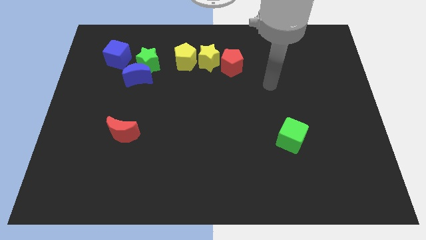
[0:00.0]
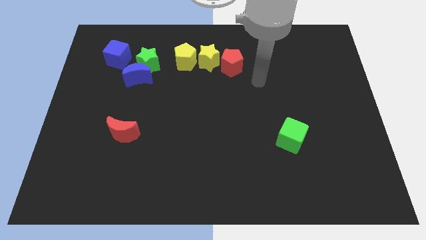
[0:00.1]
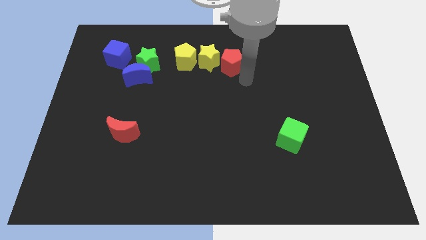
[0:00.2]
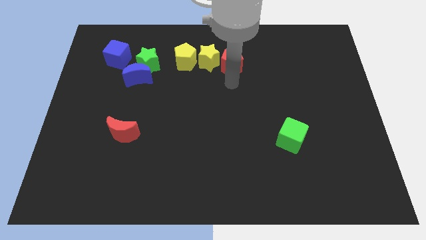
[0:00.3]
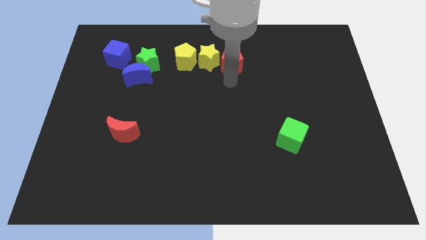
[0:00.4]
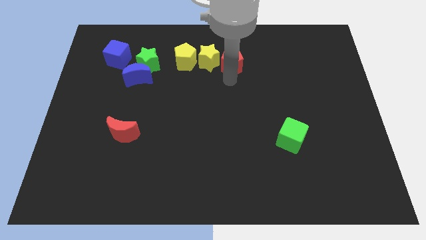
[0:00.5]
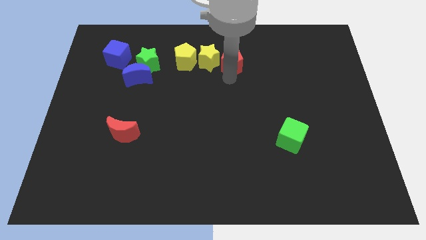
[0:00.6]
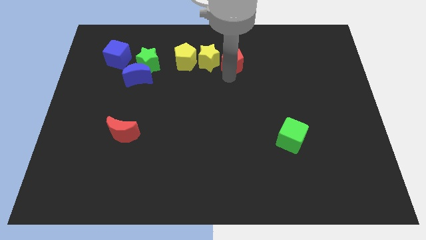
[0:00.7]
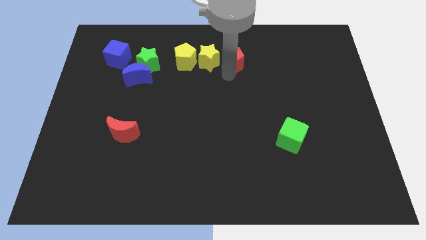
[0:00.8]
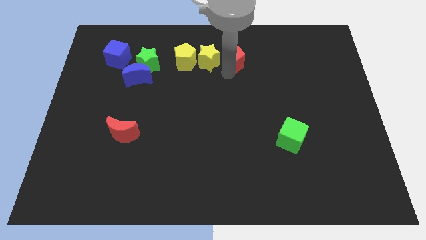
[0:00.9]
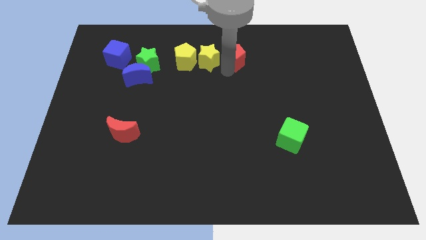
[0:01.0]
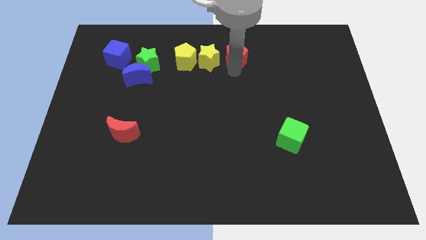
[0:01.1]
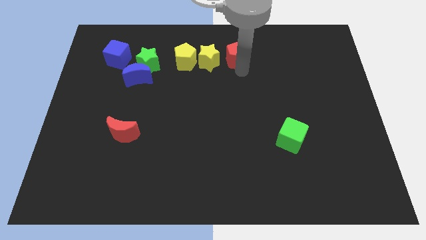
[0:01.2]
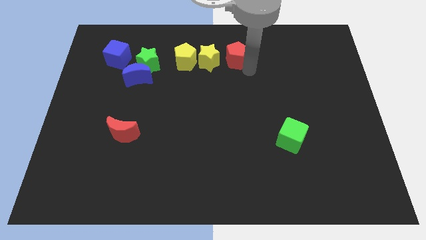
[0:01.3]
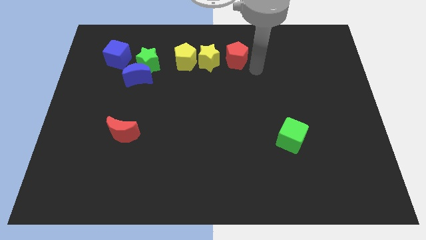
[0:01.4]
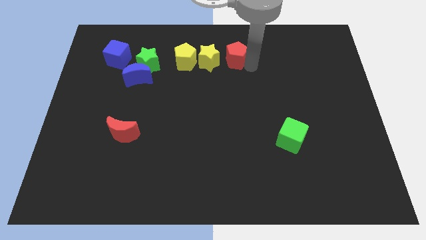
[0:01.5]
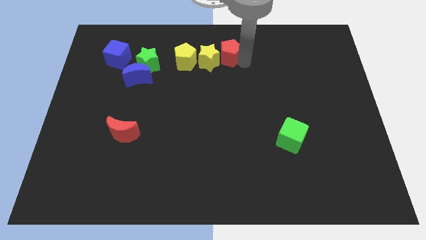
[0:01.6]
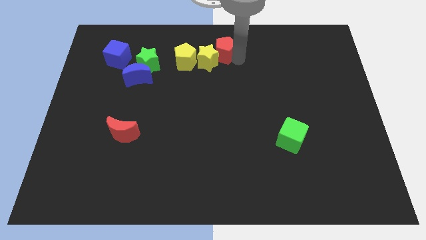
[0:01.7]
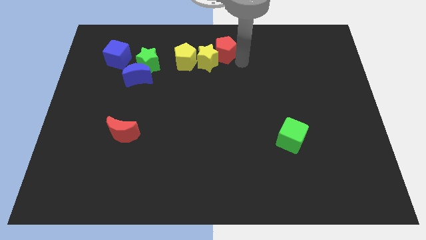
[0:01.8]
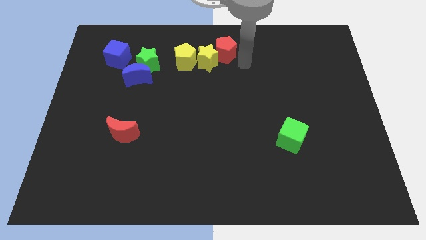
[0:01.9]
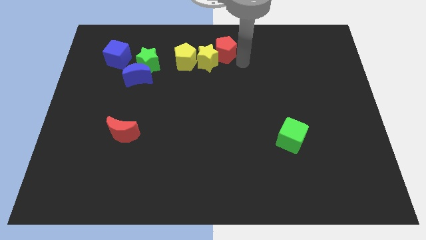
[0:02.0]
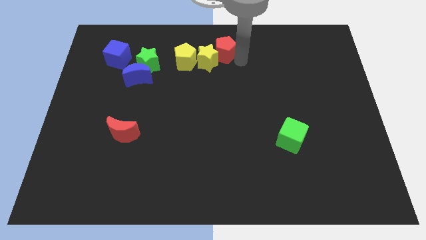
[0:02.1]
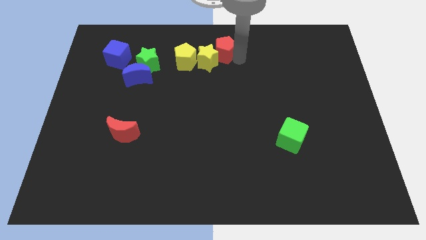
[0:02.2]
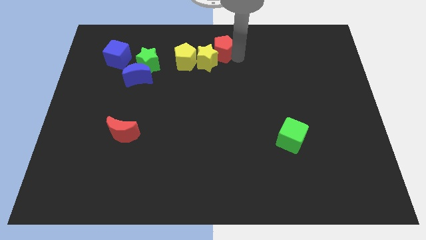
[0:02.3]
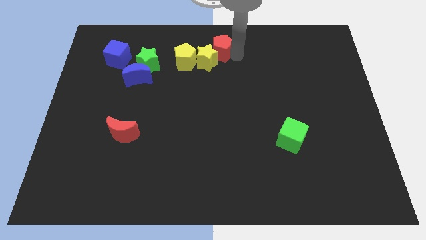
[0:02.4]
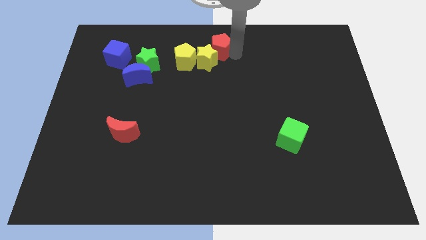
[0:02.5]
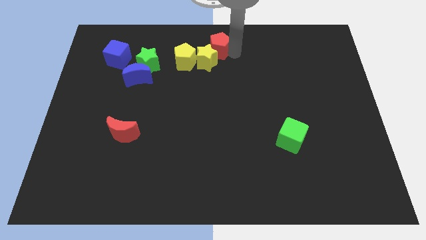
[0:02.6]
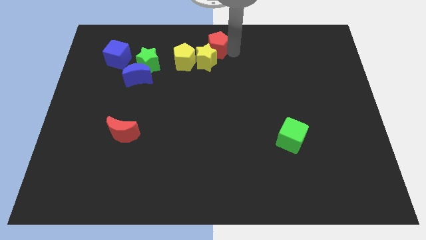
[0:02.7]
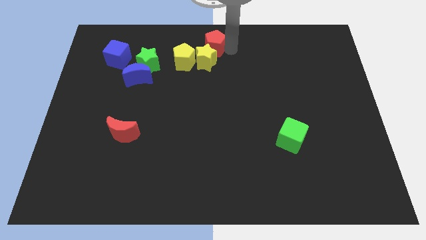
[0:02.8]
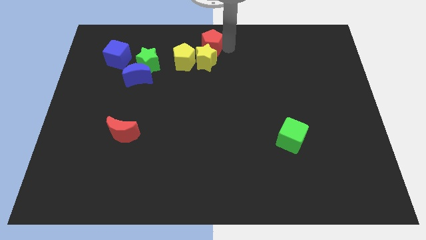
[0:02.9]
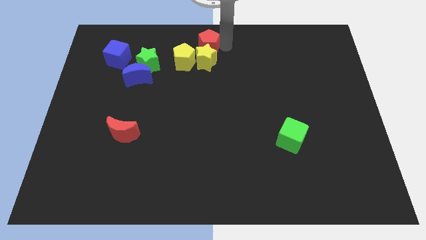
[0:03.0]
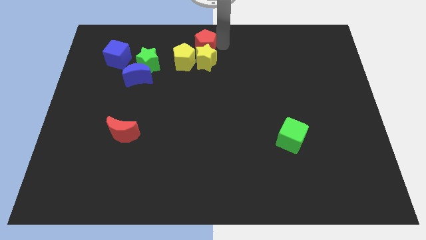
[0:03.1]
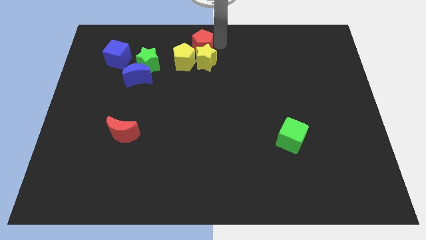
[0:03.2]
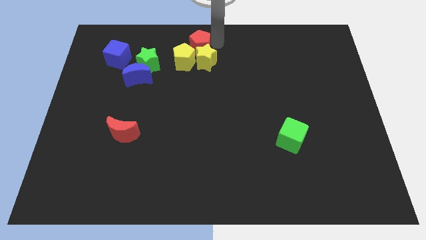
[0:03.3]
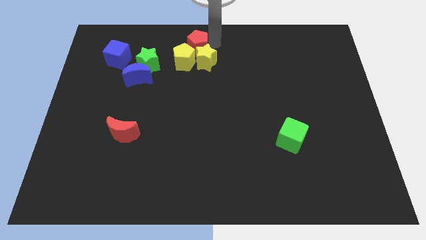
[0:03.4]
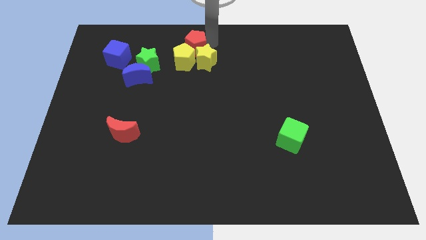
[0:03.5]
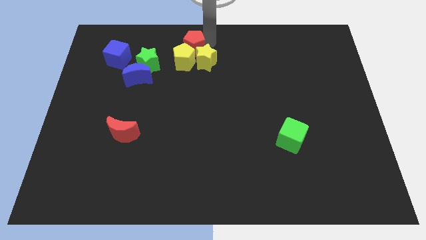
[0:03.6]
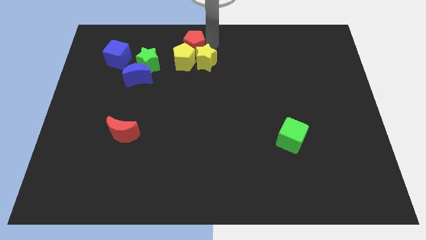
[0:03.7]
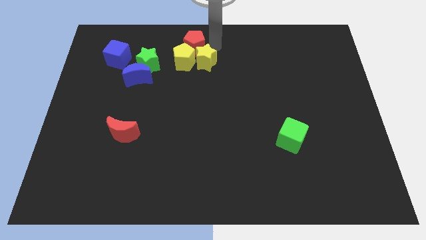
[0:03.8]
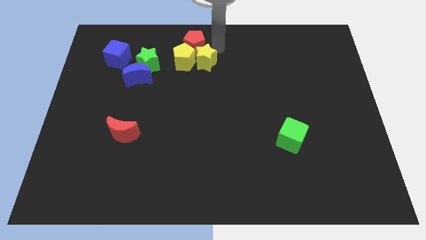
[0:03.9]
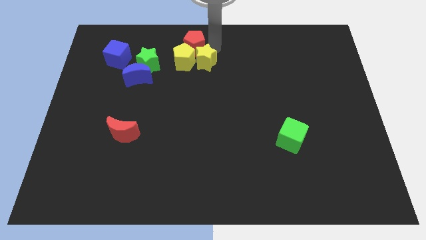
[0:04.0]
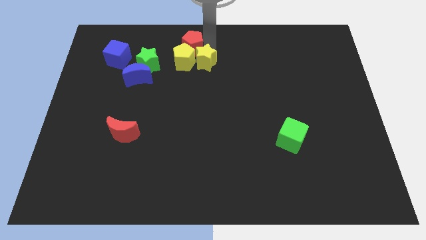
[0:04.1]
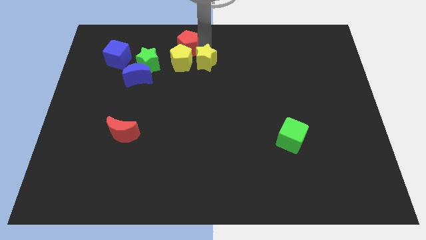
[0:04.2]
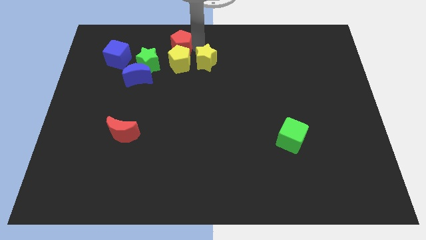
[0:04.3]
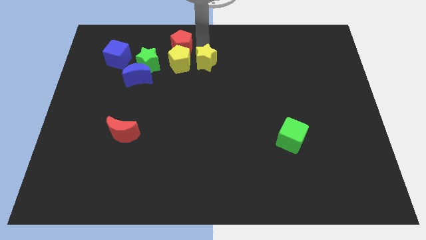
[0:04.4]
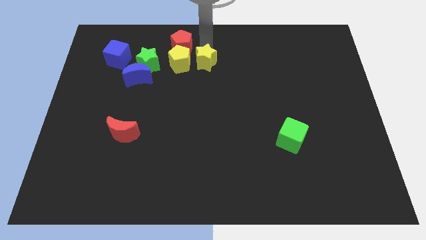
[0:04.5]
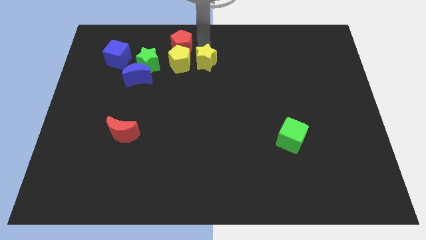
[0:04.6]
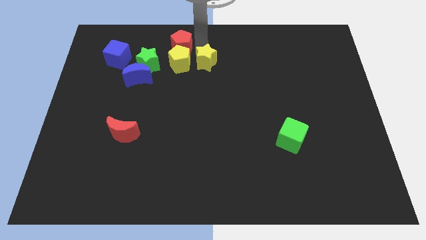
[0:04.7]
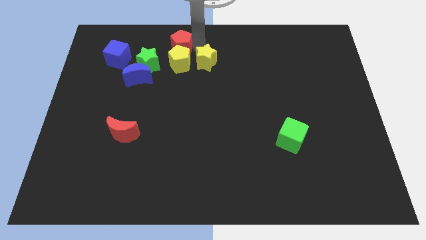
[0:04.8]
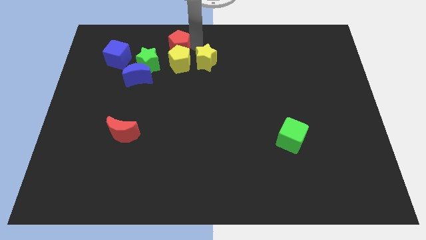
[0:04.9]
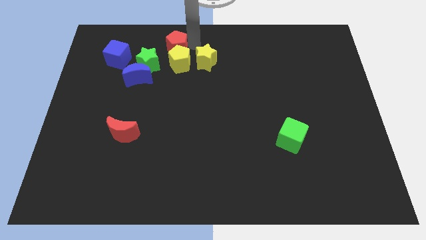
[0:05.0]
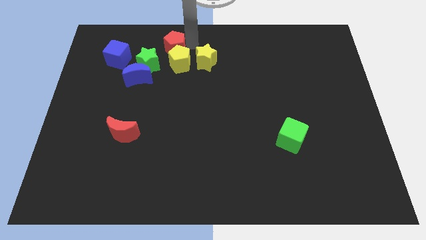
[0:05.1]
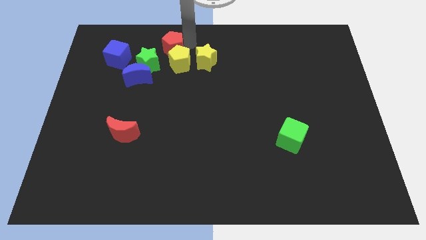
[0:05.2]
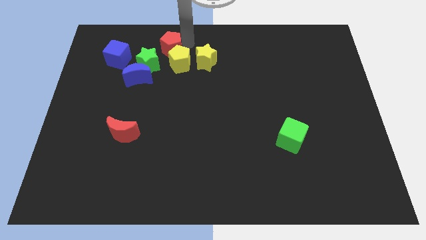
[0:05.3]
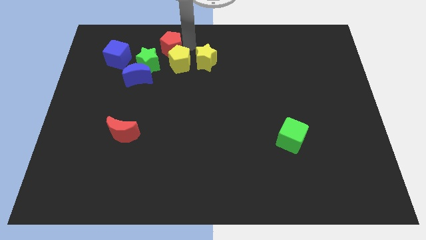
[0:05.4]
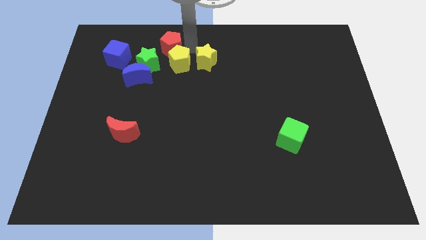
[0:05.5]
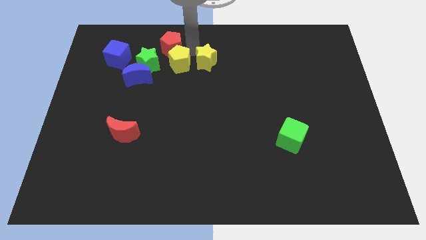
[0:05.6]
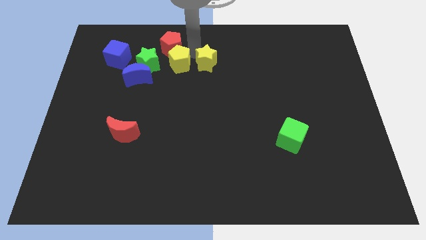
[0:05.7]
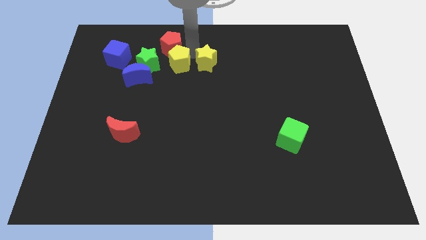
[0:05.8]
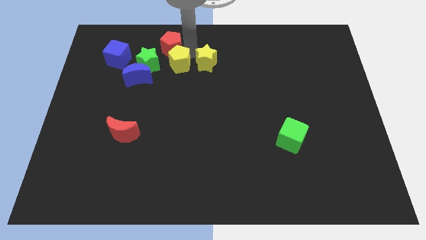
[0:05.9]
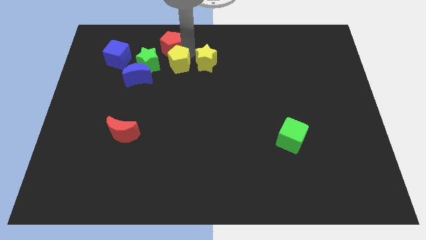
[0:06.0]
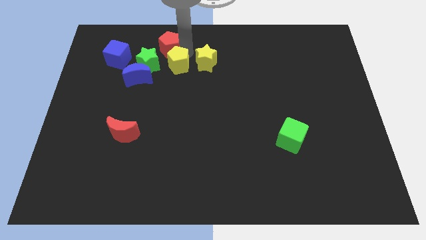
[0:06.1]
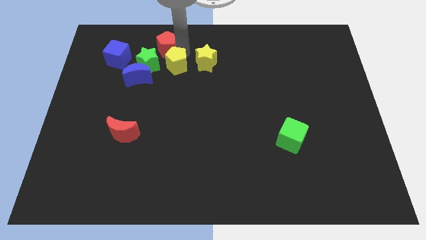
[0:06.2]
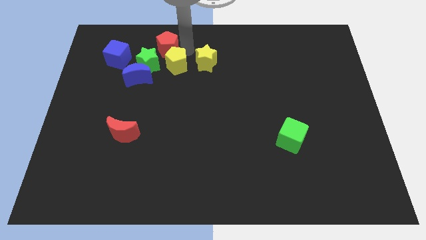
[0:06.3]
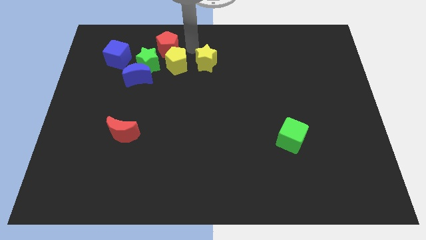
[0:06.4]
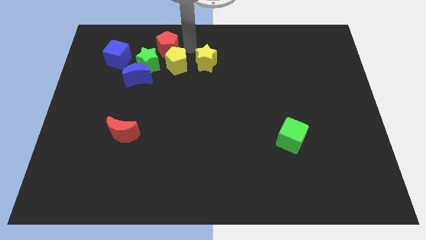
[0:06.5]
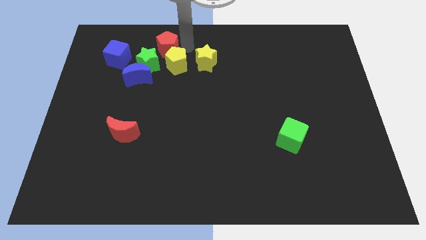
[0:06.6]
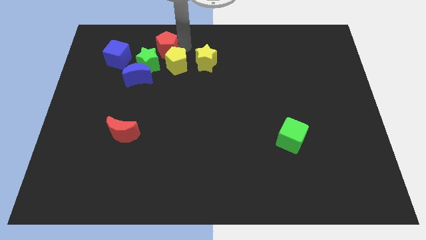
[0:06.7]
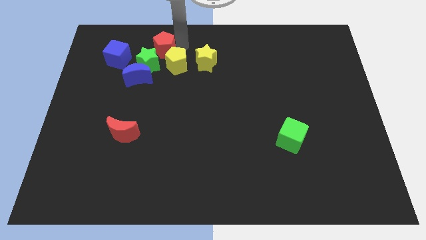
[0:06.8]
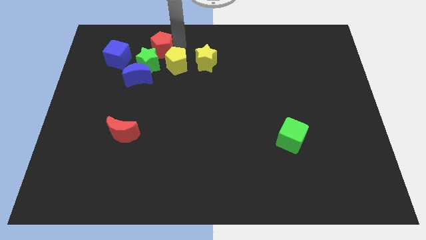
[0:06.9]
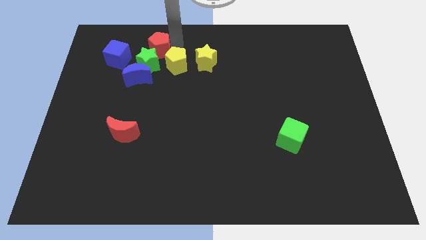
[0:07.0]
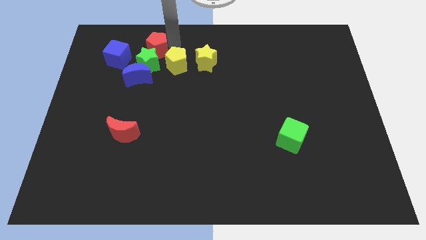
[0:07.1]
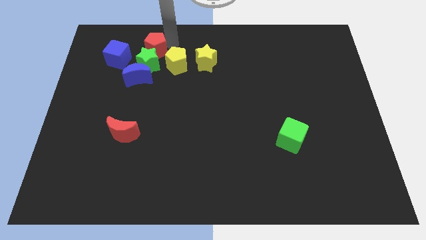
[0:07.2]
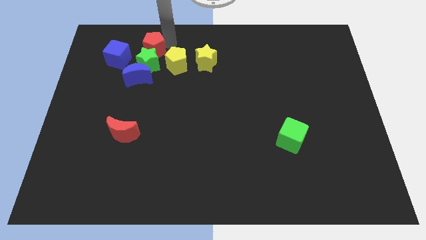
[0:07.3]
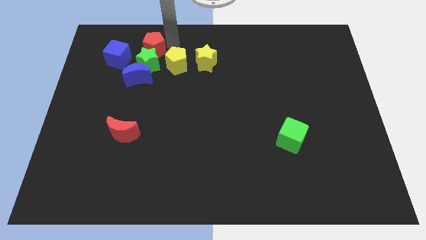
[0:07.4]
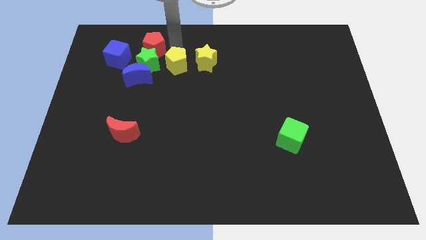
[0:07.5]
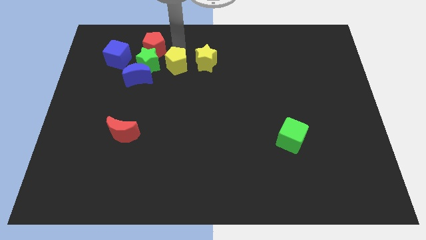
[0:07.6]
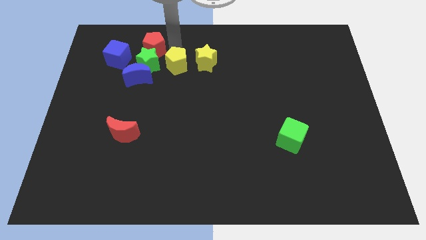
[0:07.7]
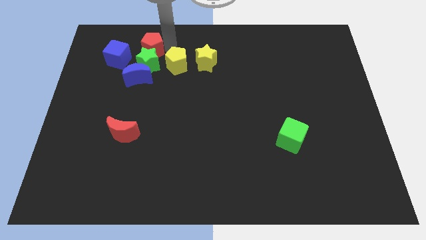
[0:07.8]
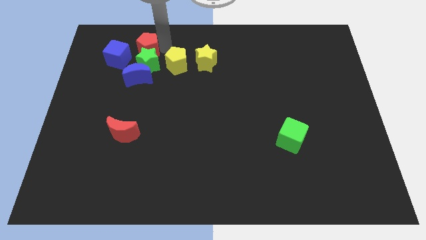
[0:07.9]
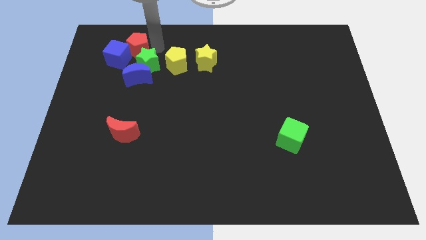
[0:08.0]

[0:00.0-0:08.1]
push the red pentagon close to the blue cube
